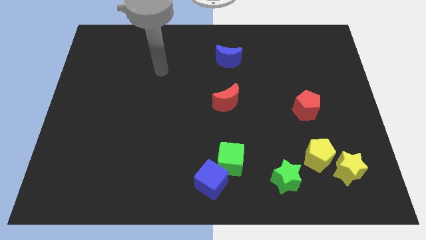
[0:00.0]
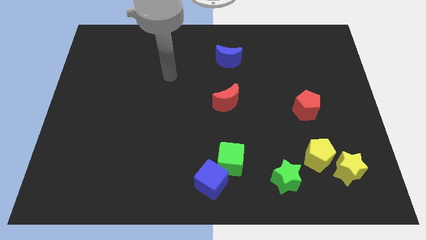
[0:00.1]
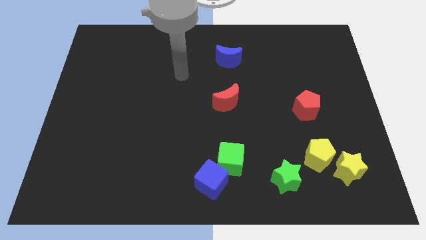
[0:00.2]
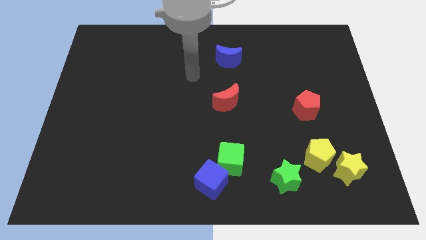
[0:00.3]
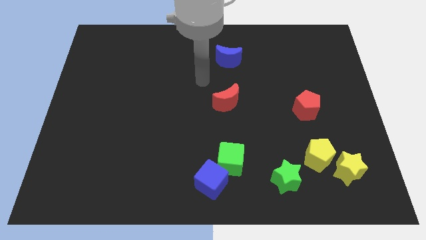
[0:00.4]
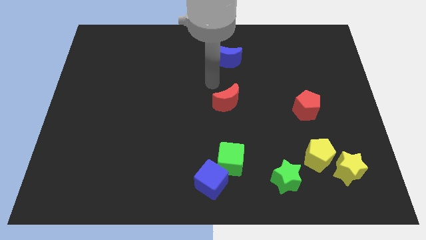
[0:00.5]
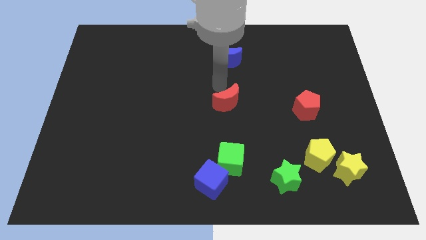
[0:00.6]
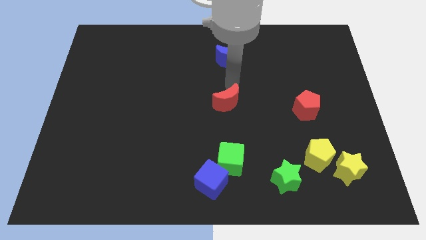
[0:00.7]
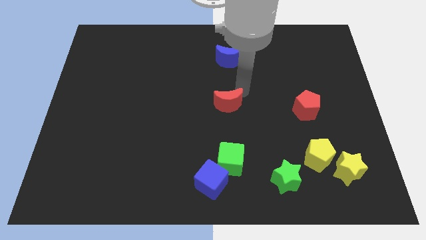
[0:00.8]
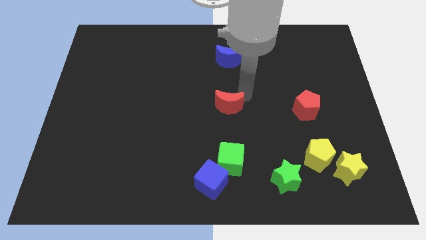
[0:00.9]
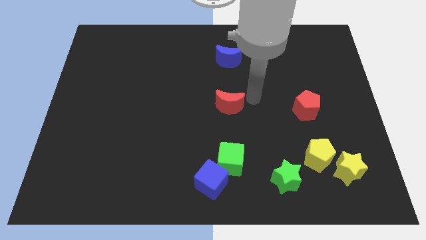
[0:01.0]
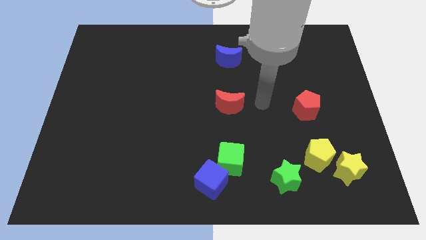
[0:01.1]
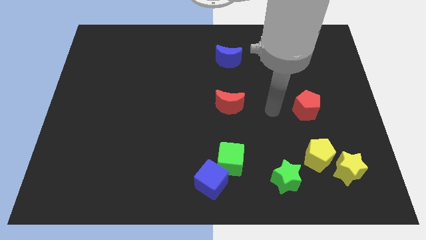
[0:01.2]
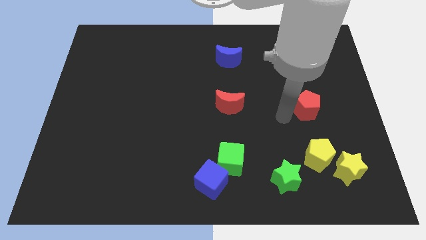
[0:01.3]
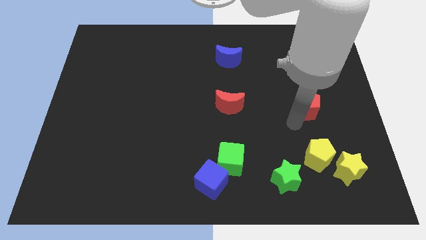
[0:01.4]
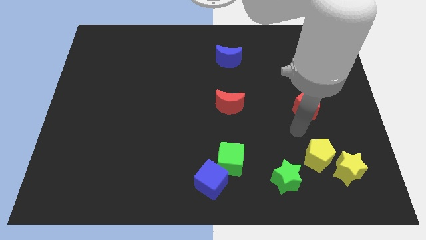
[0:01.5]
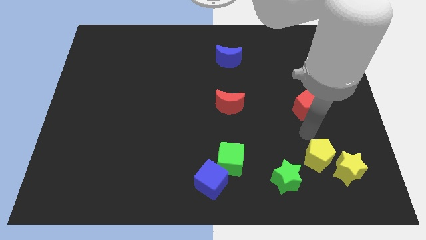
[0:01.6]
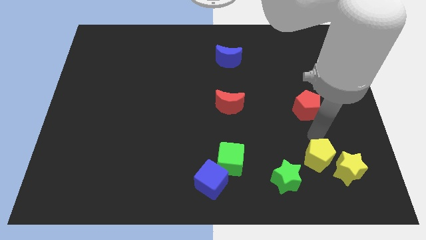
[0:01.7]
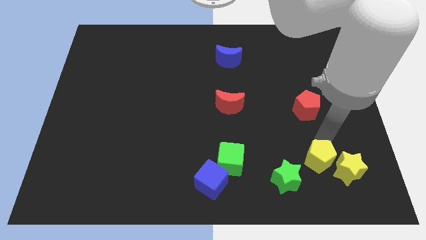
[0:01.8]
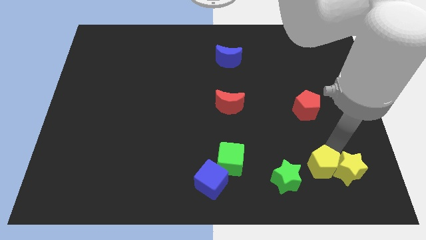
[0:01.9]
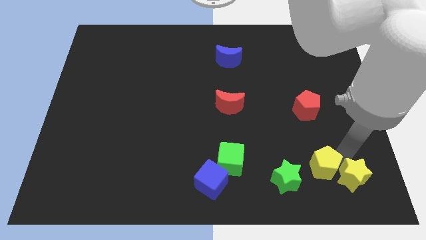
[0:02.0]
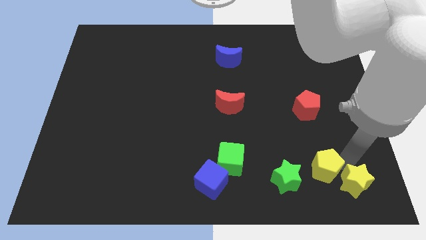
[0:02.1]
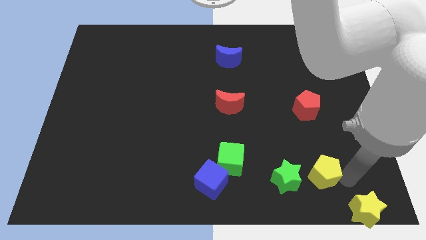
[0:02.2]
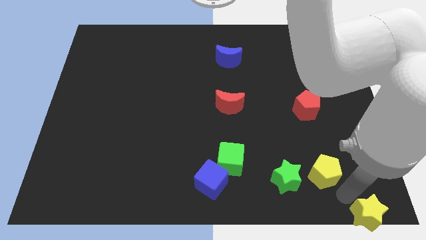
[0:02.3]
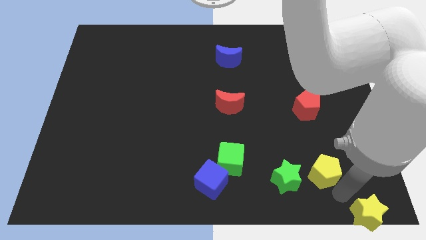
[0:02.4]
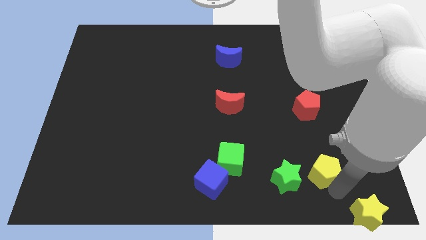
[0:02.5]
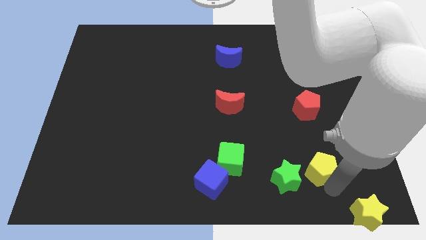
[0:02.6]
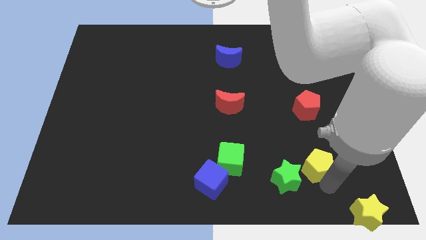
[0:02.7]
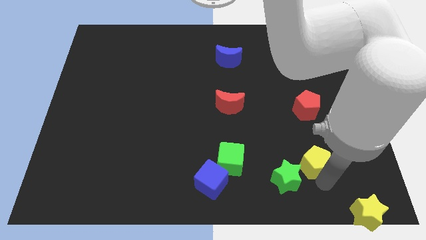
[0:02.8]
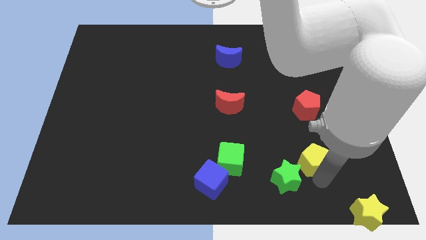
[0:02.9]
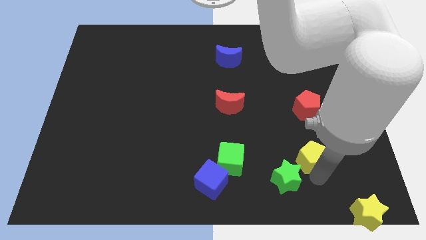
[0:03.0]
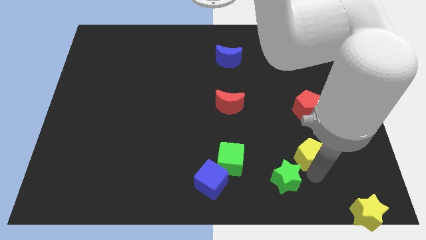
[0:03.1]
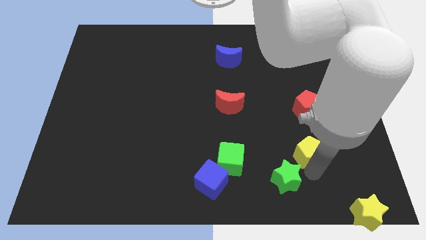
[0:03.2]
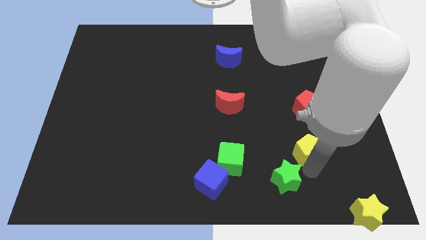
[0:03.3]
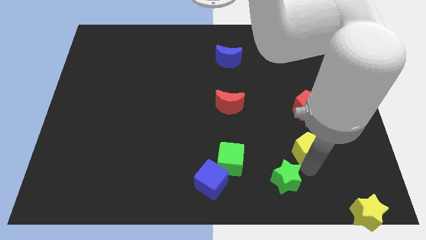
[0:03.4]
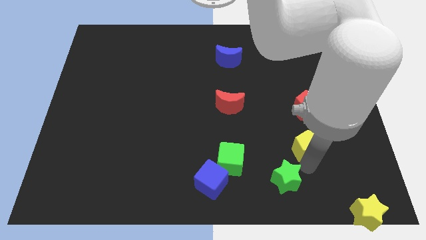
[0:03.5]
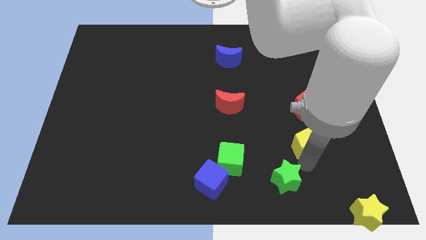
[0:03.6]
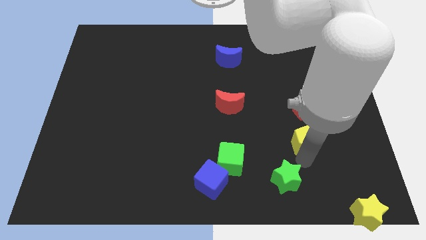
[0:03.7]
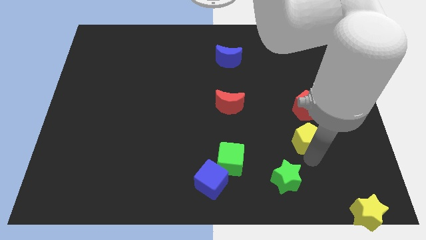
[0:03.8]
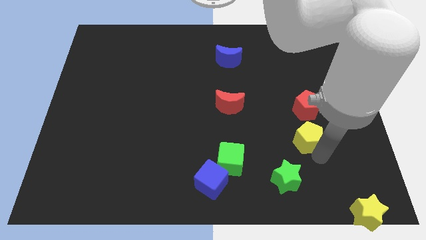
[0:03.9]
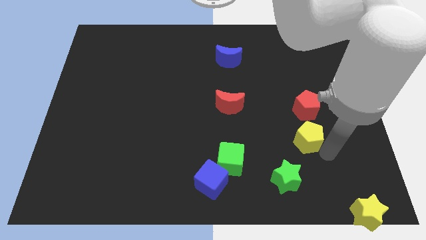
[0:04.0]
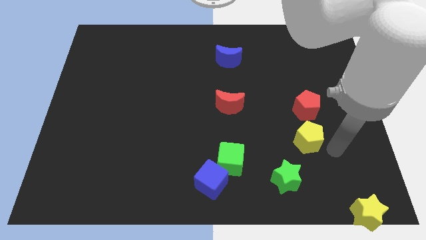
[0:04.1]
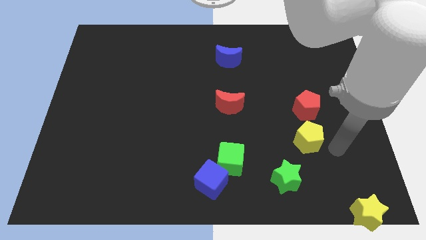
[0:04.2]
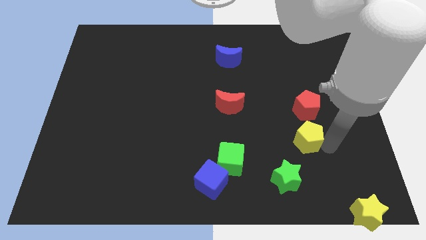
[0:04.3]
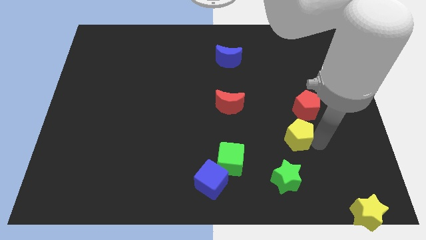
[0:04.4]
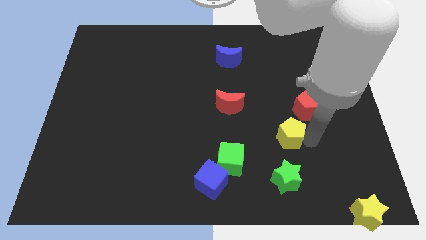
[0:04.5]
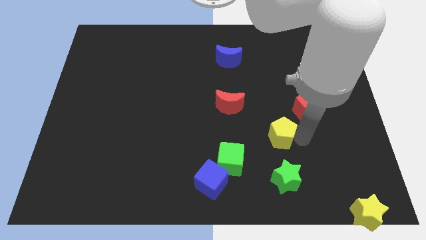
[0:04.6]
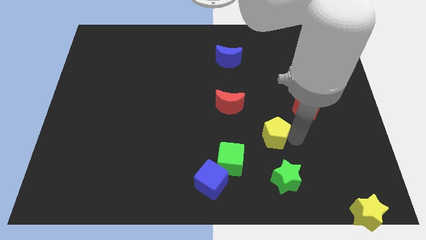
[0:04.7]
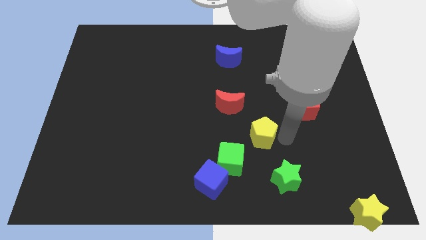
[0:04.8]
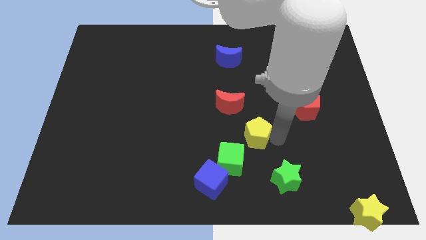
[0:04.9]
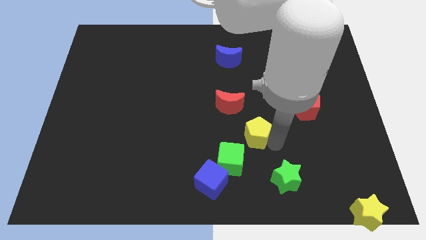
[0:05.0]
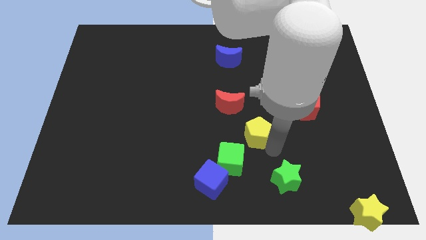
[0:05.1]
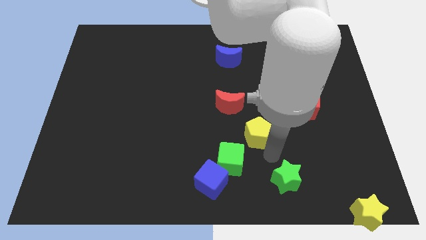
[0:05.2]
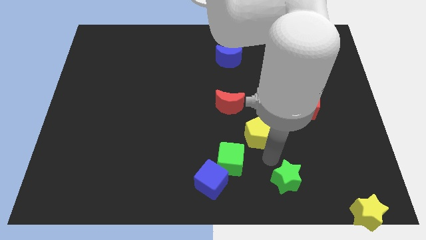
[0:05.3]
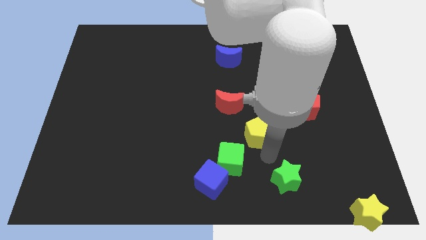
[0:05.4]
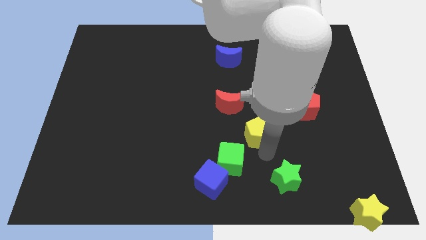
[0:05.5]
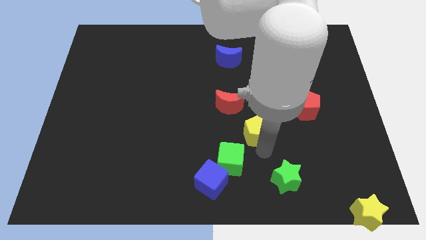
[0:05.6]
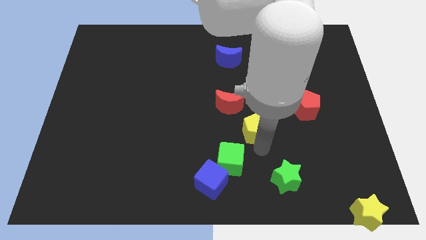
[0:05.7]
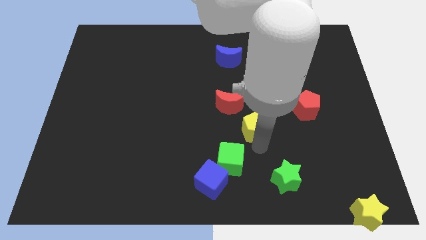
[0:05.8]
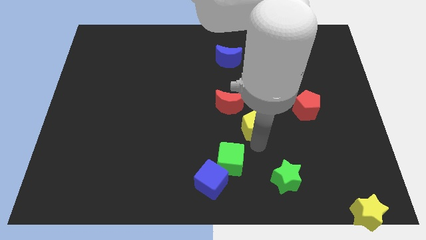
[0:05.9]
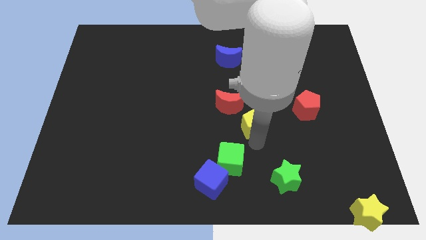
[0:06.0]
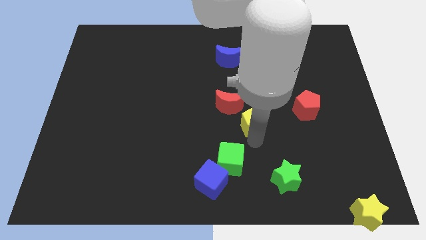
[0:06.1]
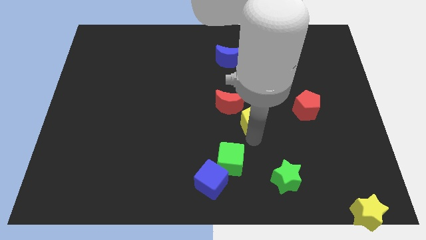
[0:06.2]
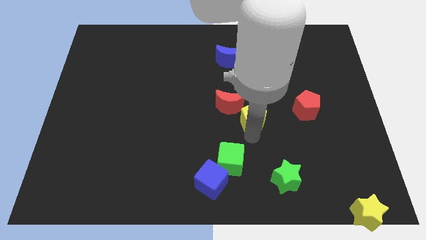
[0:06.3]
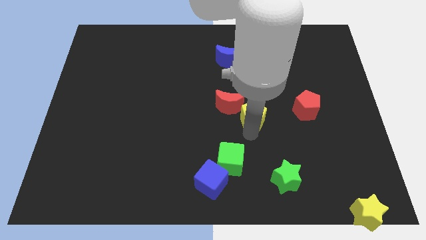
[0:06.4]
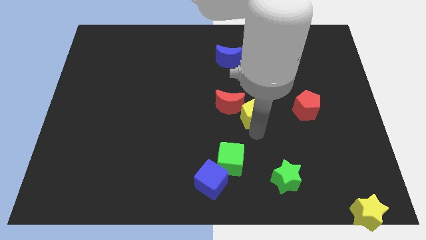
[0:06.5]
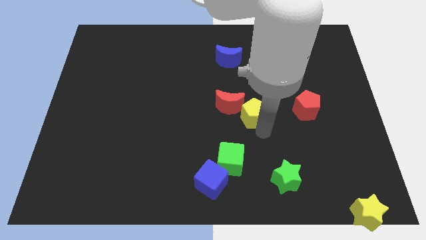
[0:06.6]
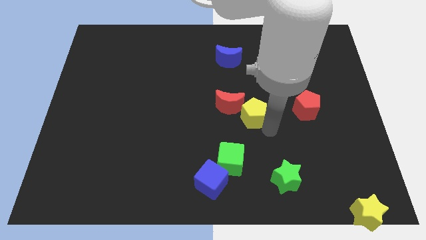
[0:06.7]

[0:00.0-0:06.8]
move the yellow pentagon next to the red moon

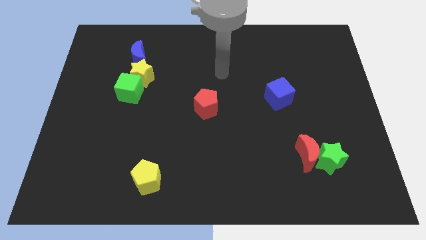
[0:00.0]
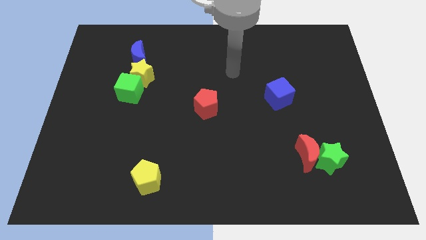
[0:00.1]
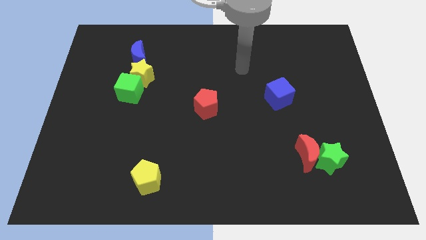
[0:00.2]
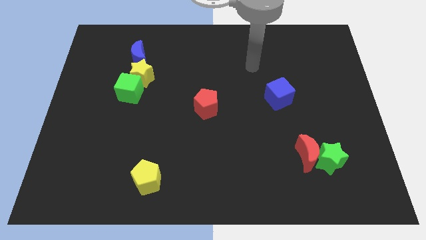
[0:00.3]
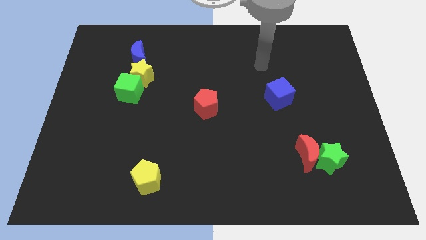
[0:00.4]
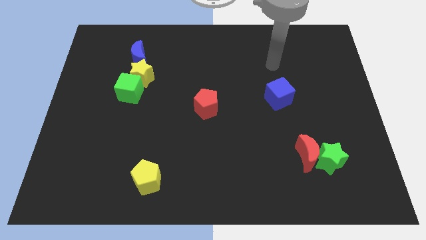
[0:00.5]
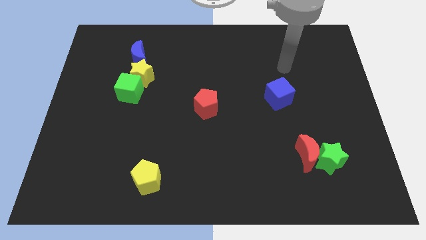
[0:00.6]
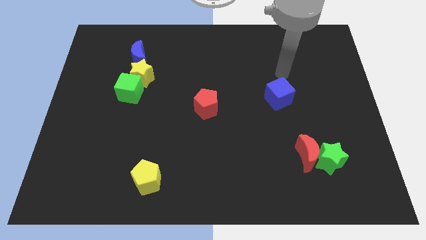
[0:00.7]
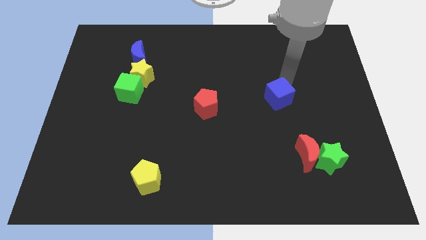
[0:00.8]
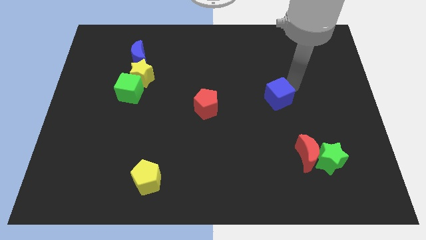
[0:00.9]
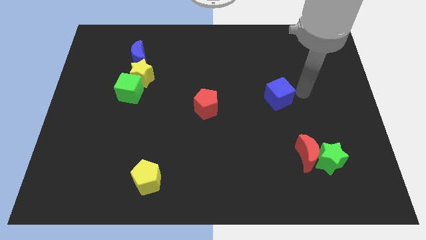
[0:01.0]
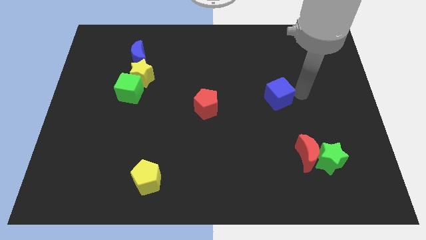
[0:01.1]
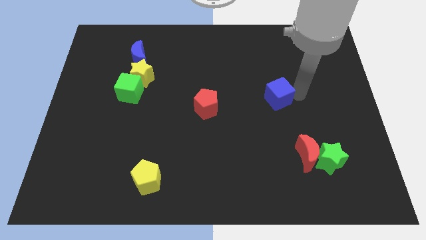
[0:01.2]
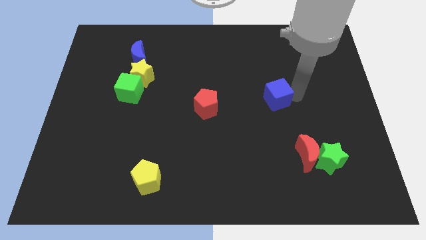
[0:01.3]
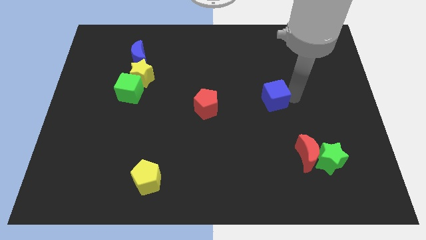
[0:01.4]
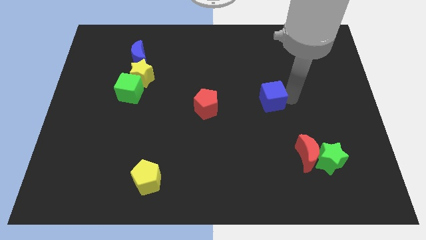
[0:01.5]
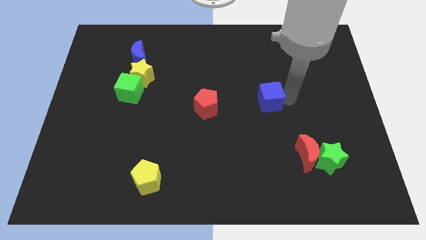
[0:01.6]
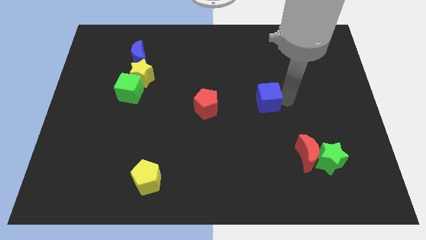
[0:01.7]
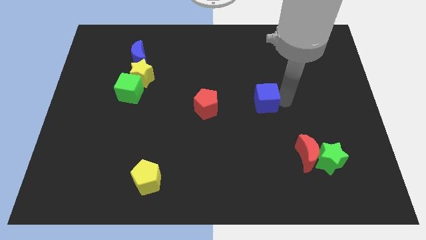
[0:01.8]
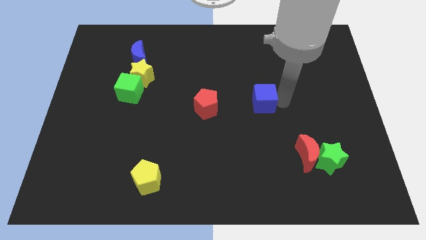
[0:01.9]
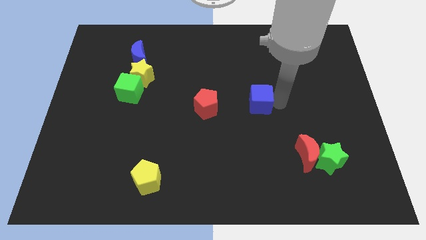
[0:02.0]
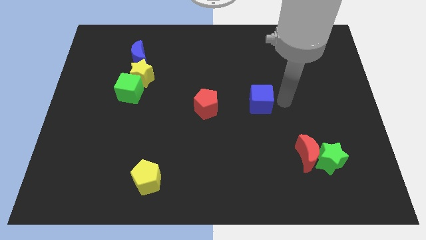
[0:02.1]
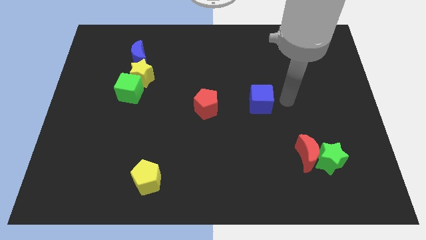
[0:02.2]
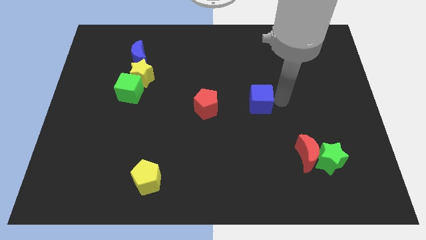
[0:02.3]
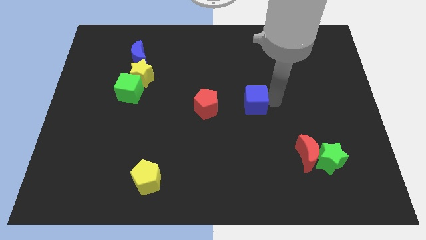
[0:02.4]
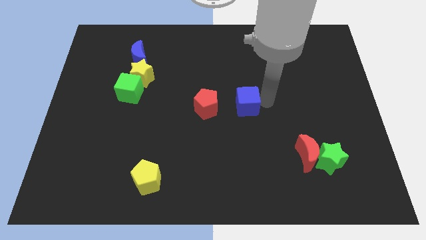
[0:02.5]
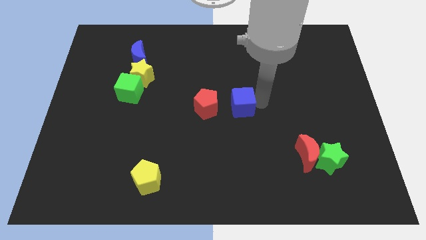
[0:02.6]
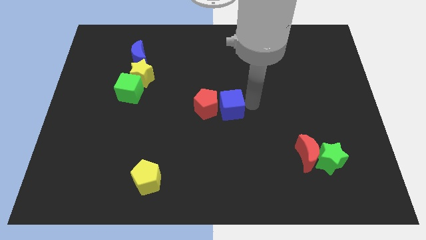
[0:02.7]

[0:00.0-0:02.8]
push the blue cube towards the red pentagon
